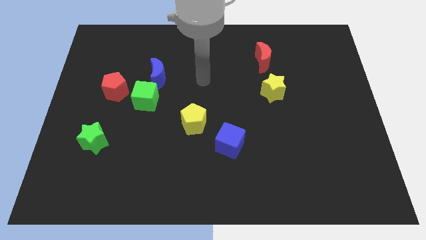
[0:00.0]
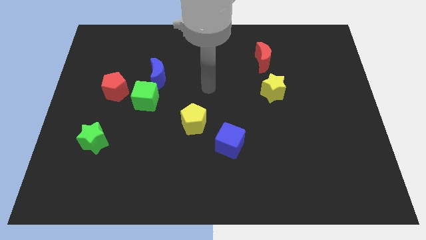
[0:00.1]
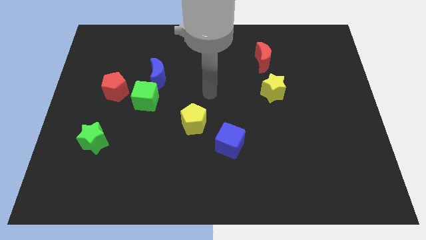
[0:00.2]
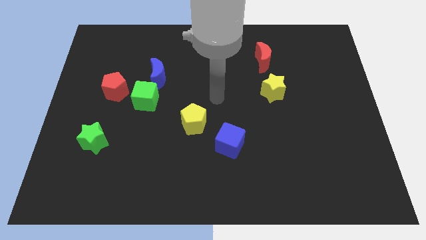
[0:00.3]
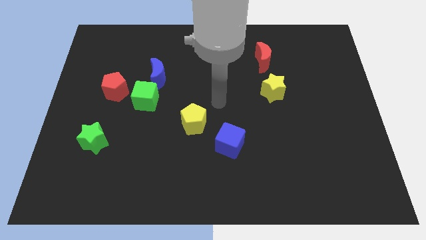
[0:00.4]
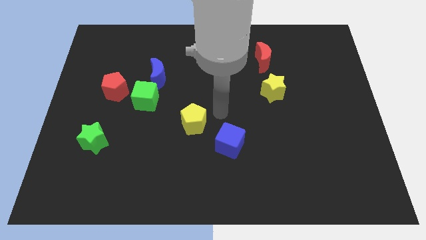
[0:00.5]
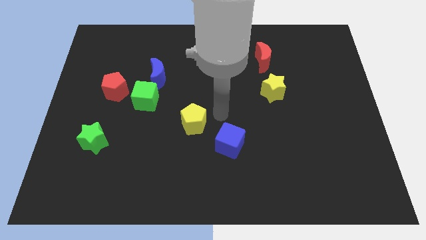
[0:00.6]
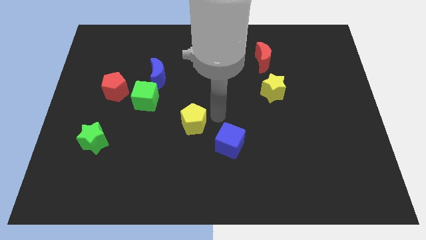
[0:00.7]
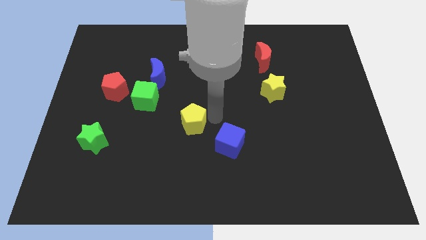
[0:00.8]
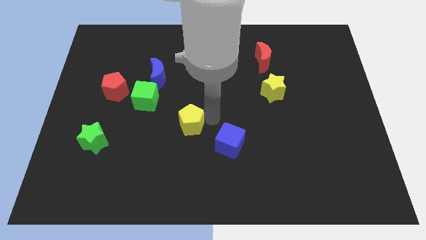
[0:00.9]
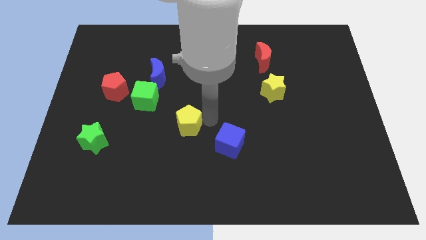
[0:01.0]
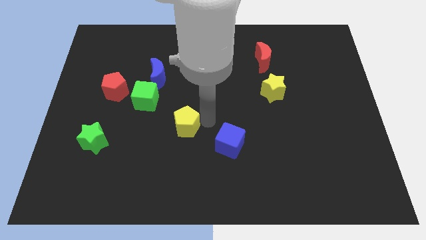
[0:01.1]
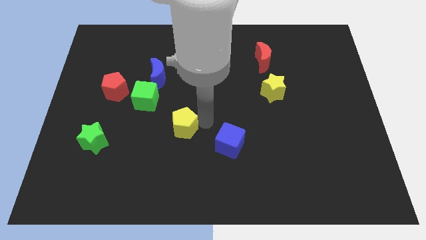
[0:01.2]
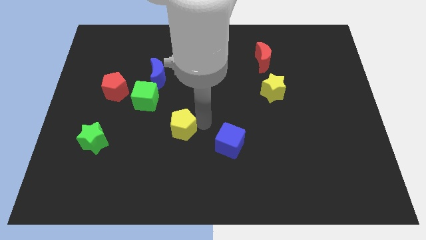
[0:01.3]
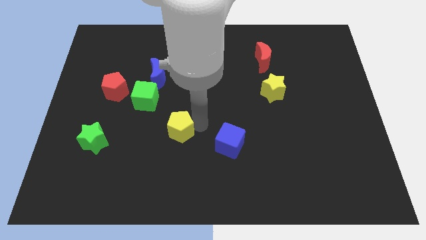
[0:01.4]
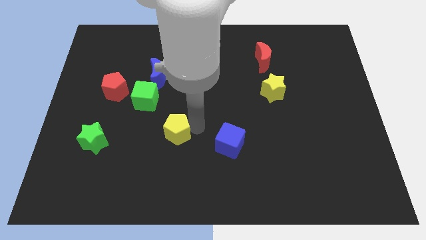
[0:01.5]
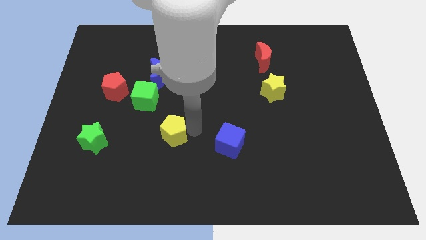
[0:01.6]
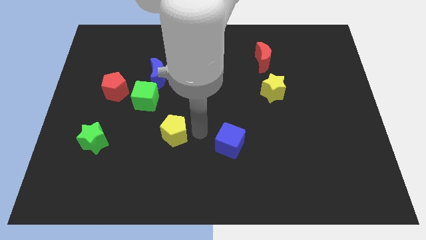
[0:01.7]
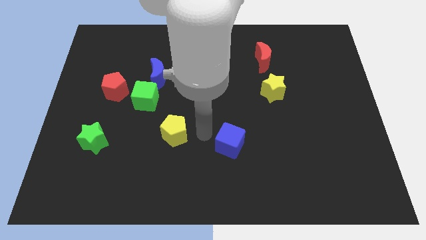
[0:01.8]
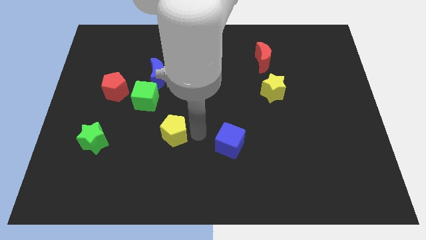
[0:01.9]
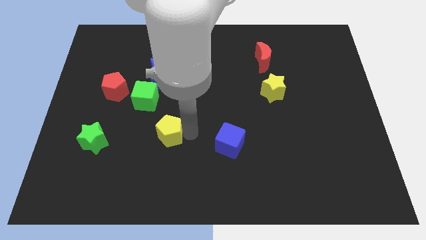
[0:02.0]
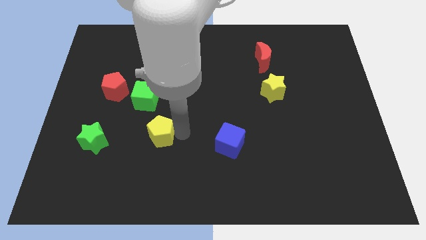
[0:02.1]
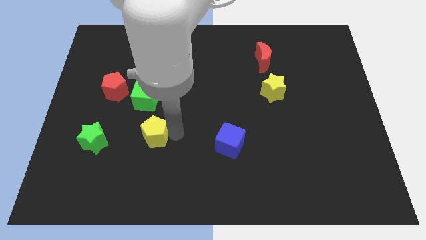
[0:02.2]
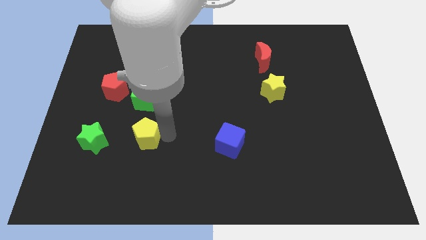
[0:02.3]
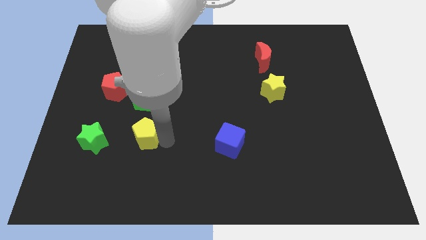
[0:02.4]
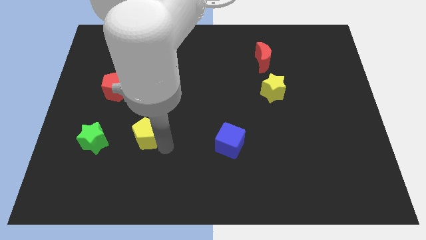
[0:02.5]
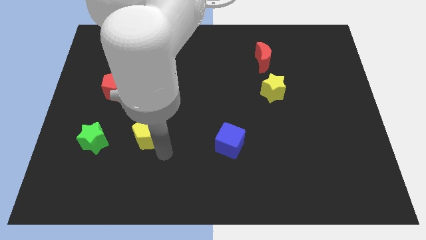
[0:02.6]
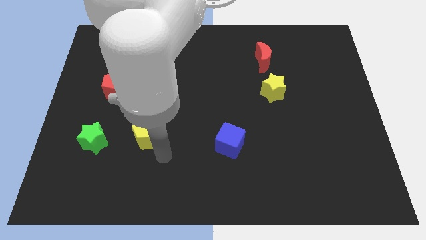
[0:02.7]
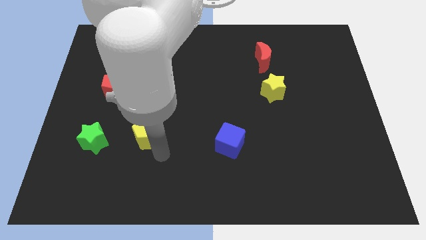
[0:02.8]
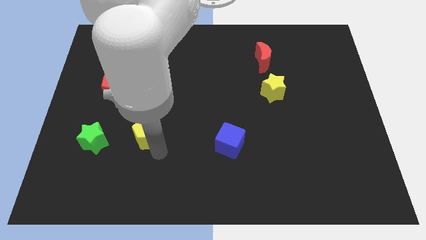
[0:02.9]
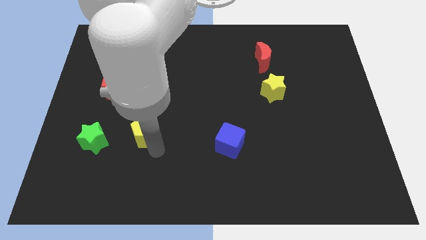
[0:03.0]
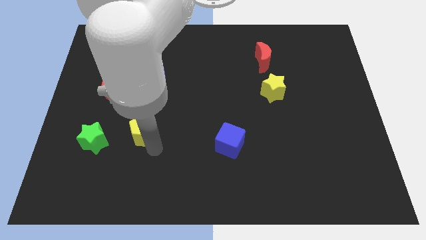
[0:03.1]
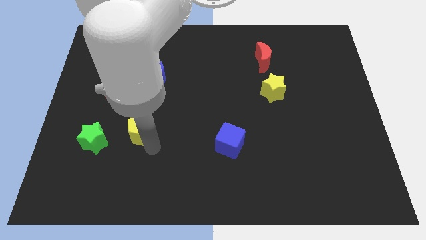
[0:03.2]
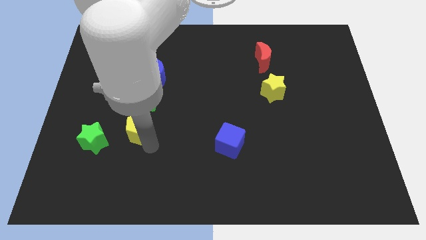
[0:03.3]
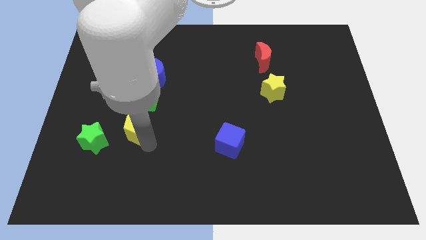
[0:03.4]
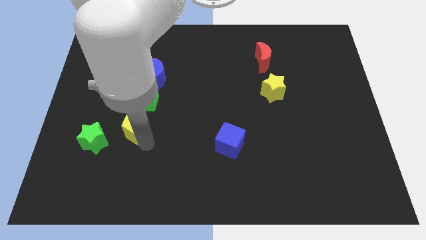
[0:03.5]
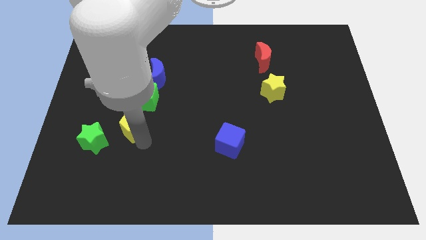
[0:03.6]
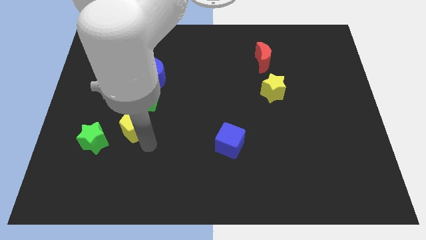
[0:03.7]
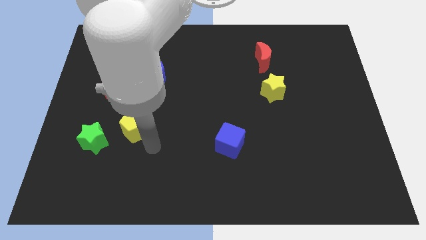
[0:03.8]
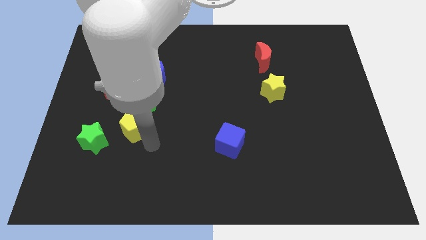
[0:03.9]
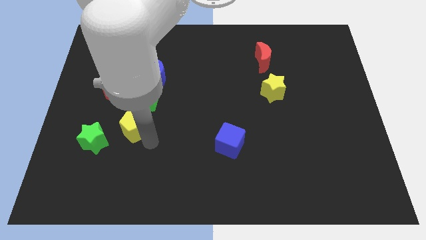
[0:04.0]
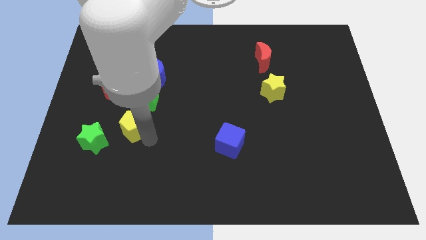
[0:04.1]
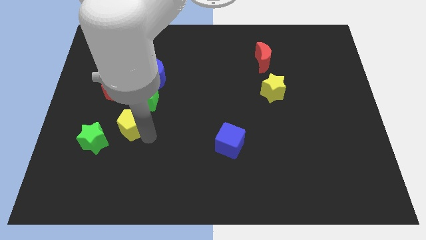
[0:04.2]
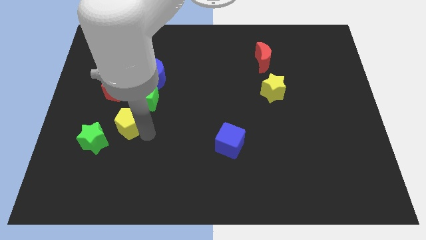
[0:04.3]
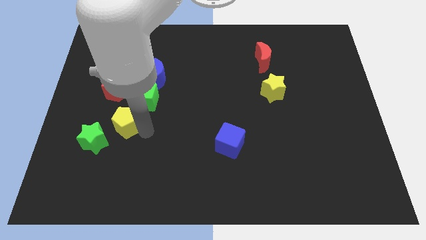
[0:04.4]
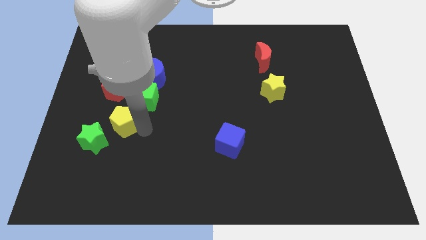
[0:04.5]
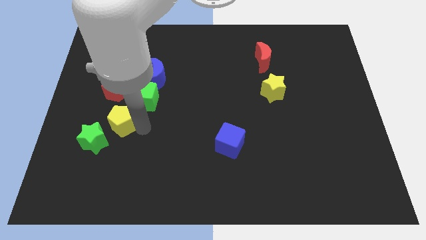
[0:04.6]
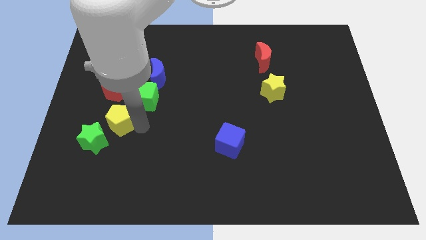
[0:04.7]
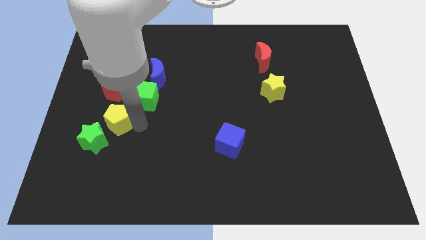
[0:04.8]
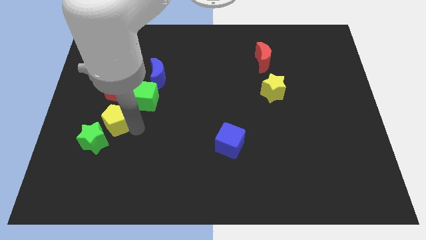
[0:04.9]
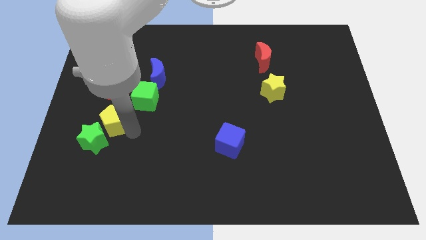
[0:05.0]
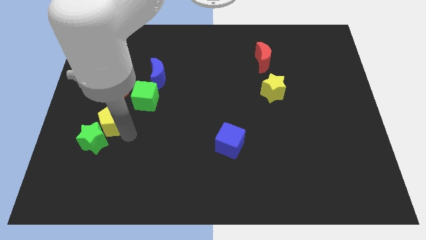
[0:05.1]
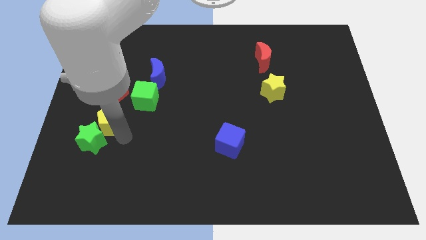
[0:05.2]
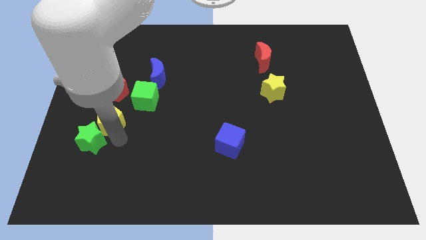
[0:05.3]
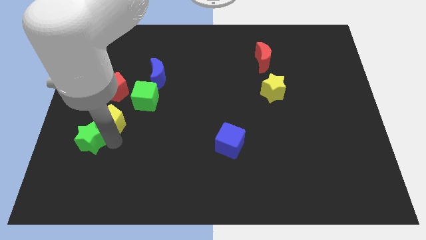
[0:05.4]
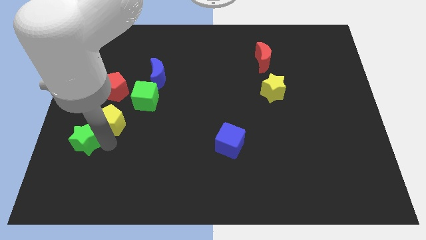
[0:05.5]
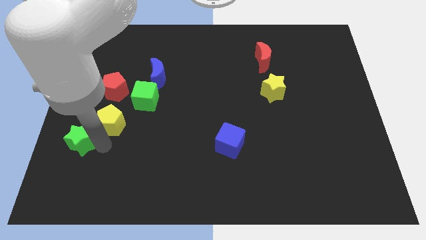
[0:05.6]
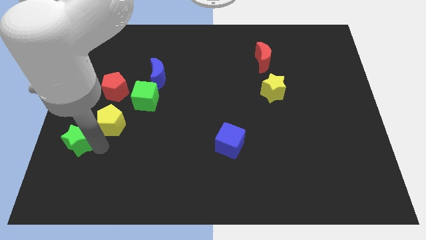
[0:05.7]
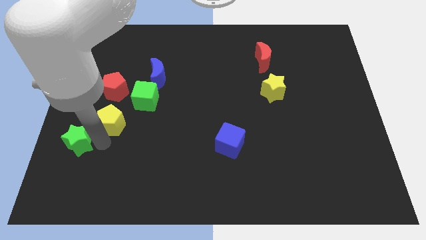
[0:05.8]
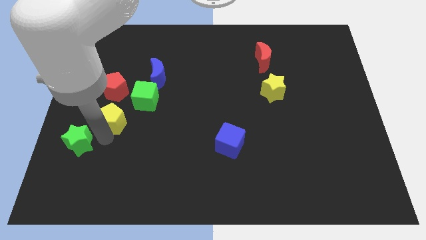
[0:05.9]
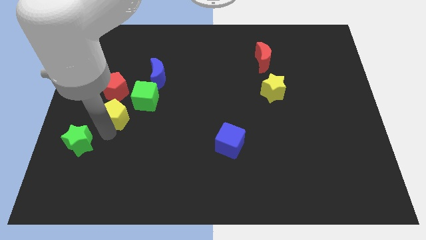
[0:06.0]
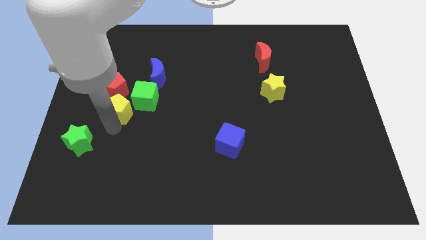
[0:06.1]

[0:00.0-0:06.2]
slide the yellow pentagon just left of the green cube

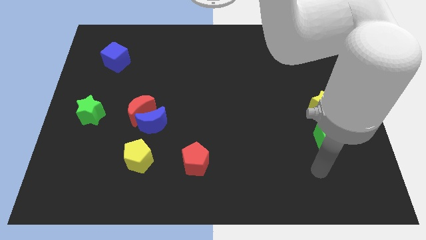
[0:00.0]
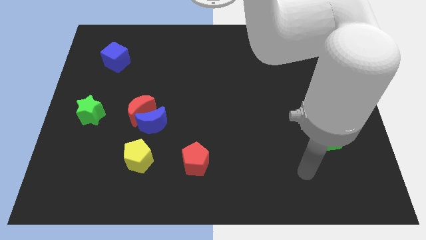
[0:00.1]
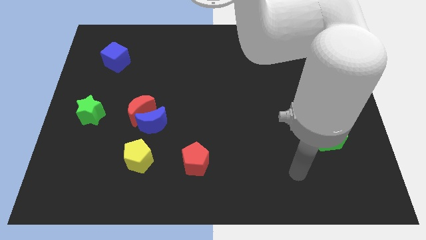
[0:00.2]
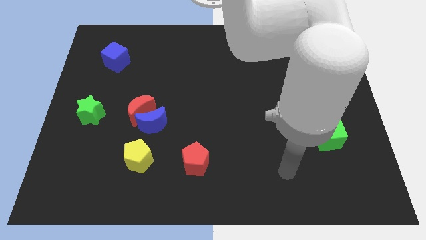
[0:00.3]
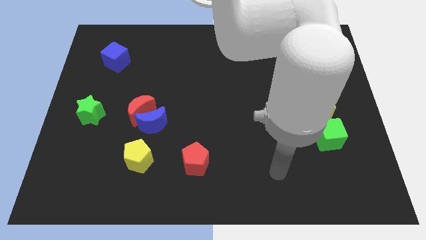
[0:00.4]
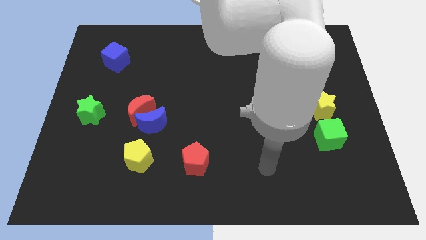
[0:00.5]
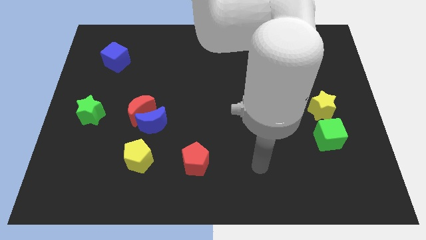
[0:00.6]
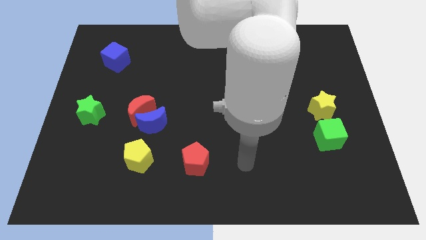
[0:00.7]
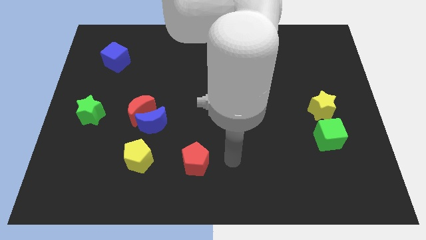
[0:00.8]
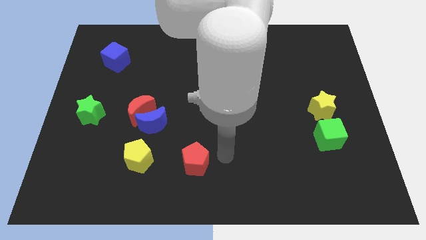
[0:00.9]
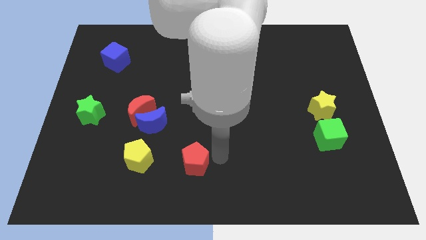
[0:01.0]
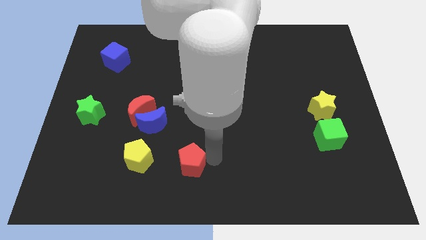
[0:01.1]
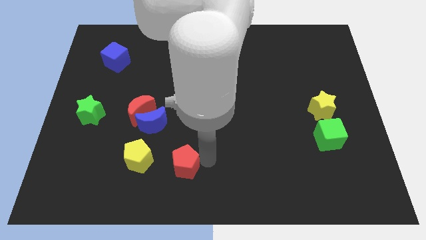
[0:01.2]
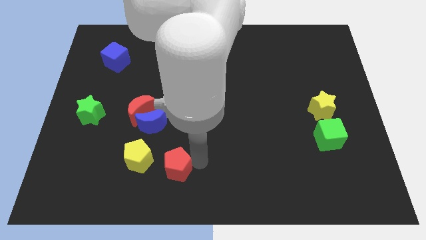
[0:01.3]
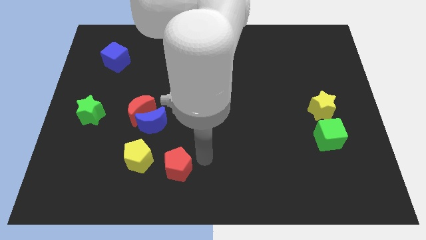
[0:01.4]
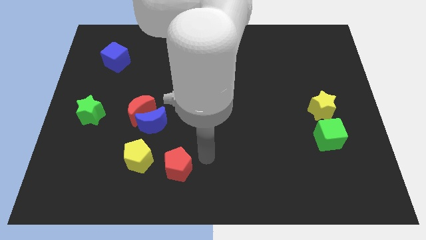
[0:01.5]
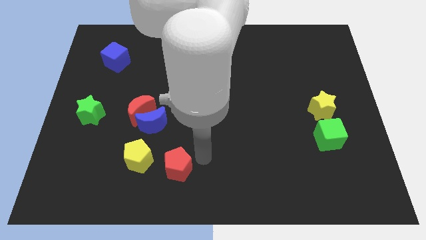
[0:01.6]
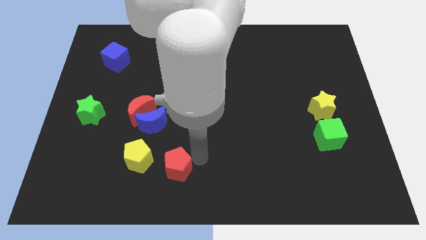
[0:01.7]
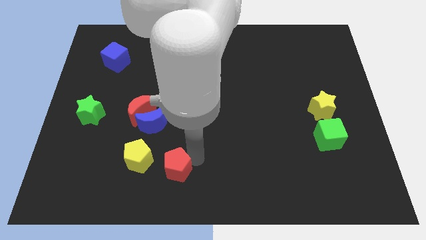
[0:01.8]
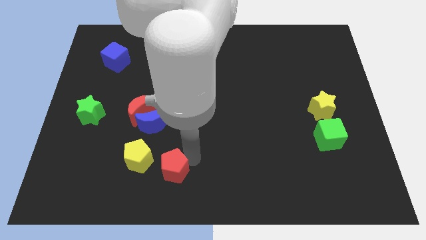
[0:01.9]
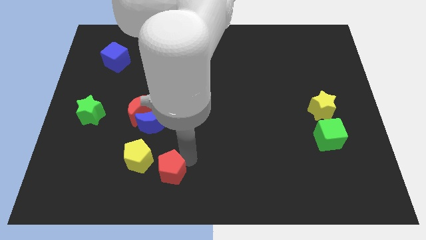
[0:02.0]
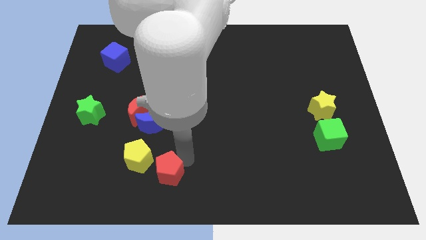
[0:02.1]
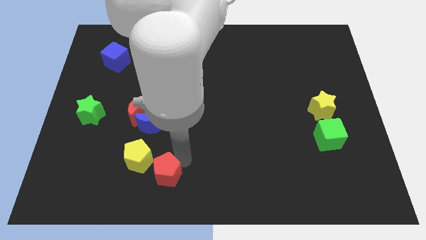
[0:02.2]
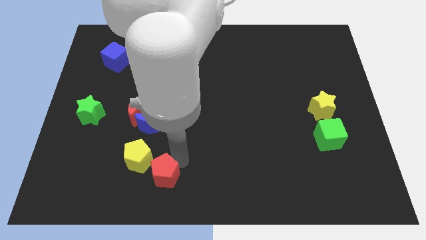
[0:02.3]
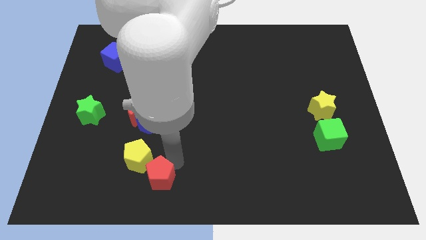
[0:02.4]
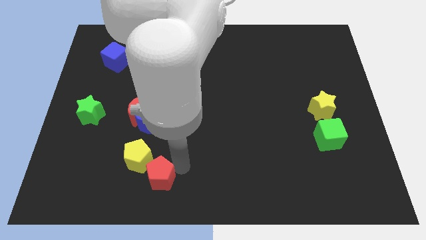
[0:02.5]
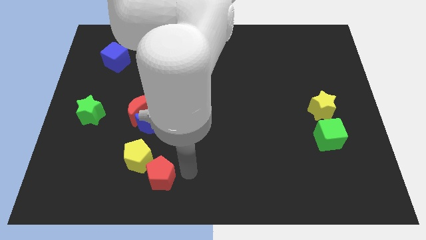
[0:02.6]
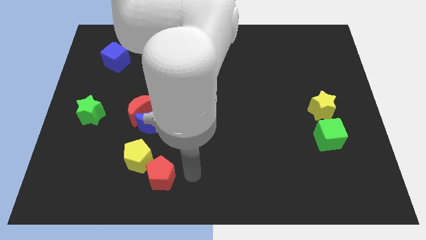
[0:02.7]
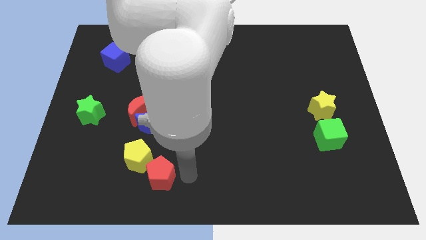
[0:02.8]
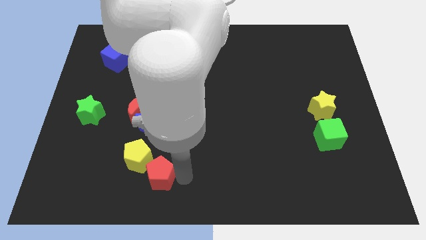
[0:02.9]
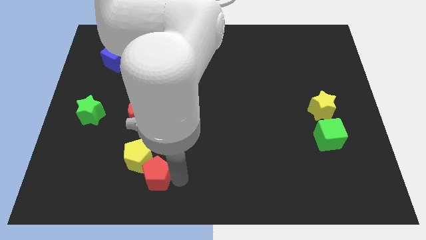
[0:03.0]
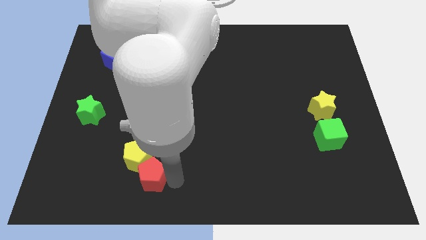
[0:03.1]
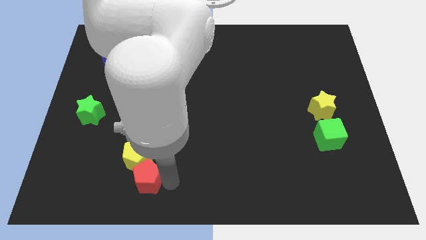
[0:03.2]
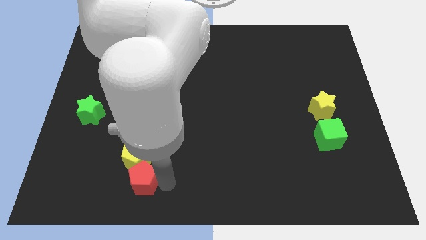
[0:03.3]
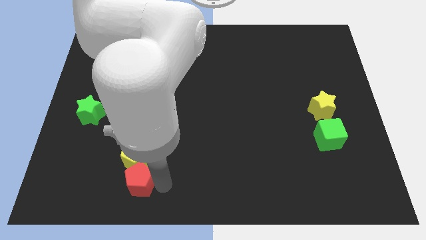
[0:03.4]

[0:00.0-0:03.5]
put the red pentagon diagonally down and to the left of the yellow pentagon
